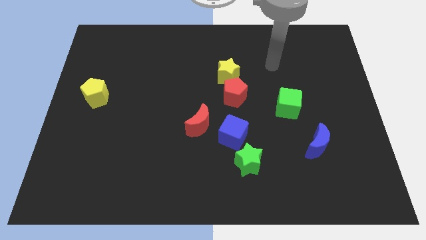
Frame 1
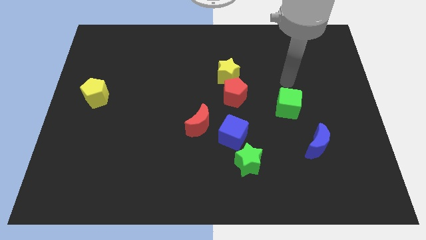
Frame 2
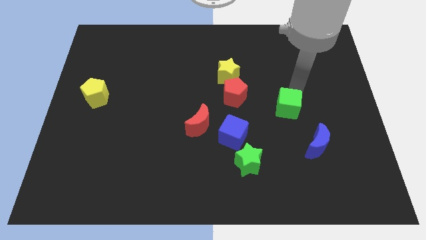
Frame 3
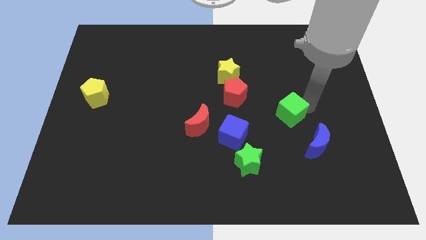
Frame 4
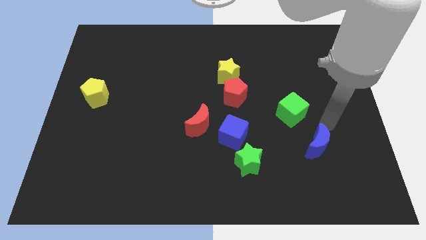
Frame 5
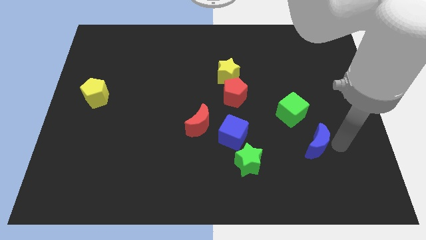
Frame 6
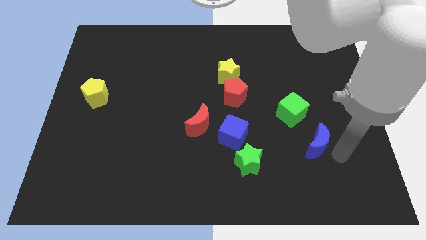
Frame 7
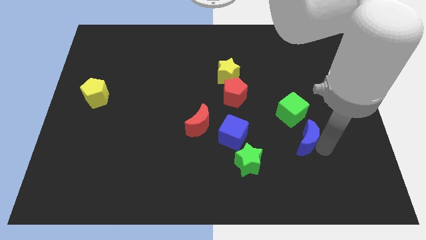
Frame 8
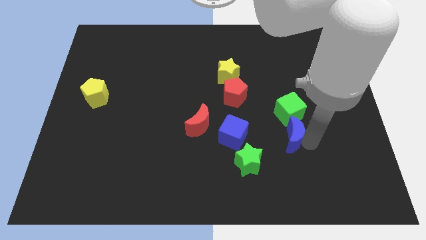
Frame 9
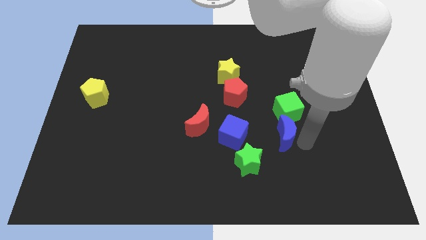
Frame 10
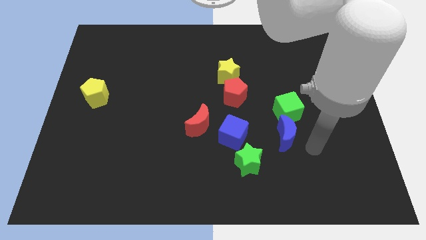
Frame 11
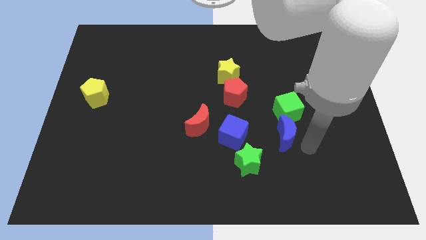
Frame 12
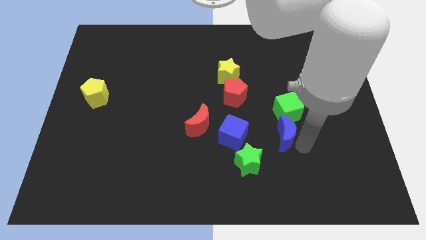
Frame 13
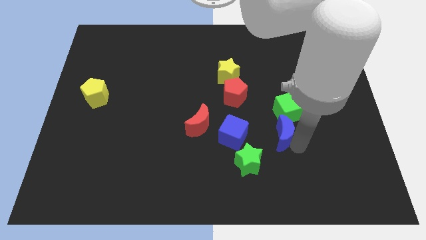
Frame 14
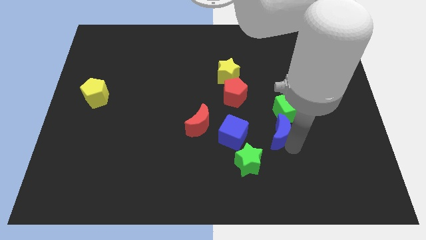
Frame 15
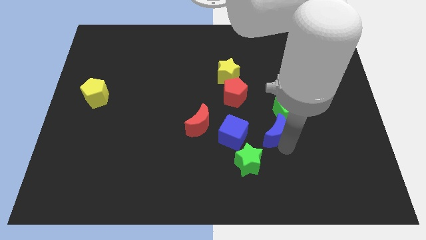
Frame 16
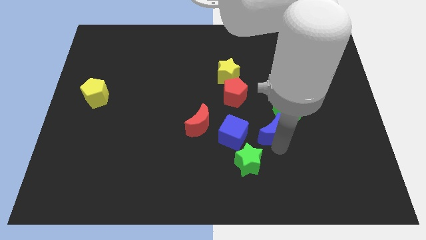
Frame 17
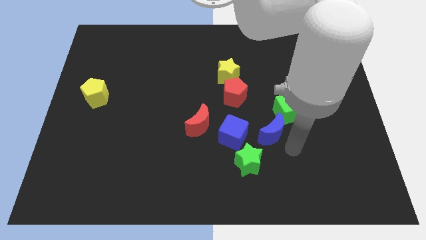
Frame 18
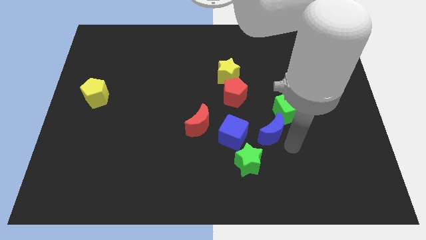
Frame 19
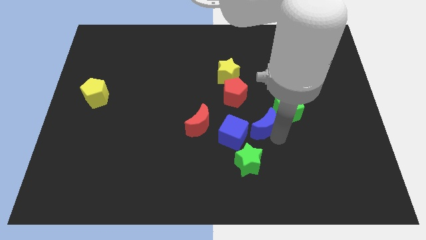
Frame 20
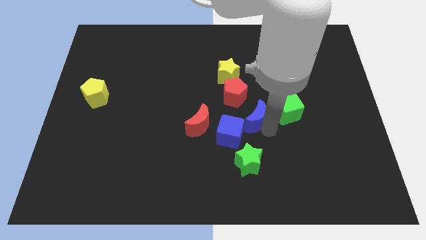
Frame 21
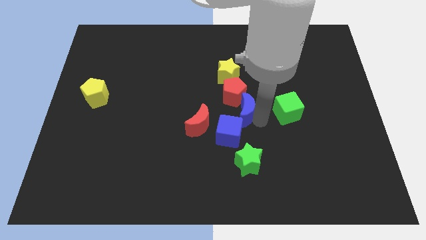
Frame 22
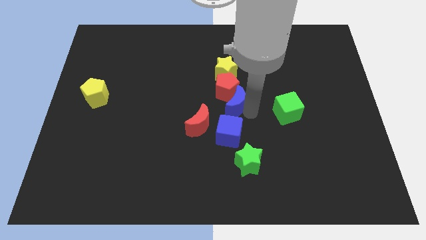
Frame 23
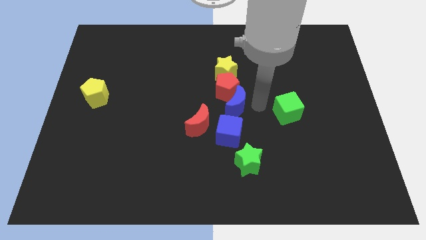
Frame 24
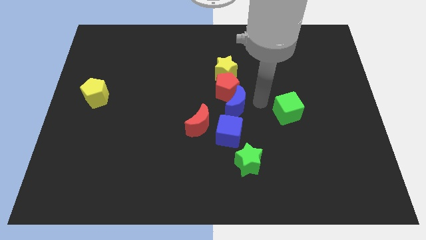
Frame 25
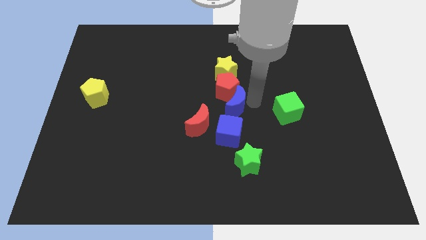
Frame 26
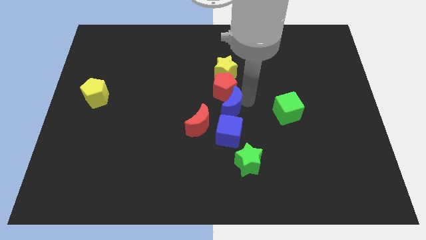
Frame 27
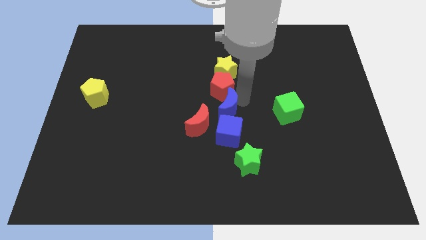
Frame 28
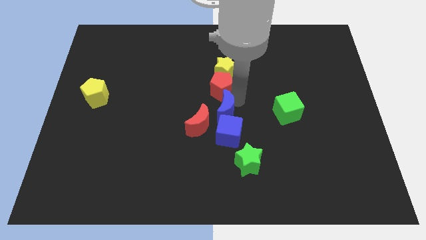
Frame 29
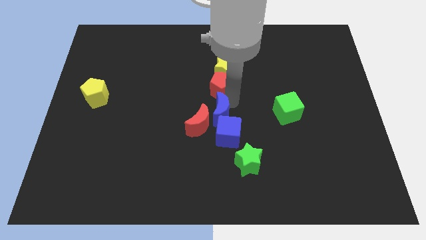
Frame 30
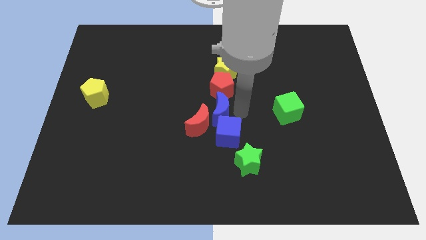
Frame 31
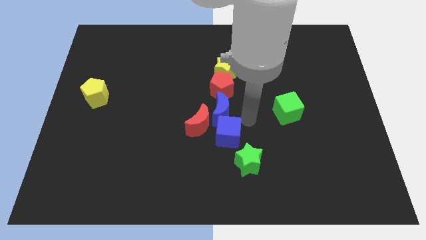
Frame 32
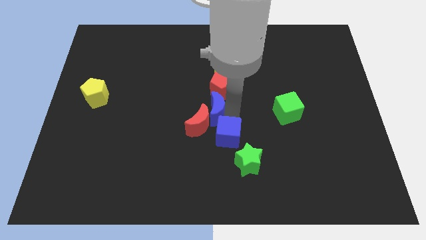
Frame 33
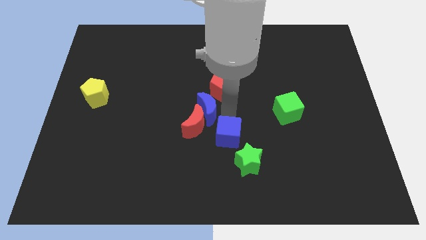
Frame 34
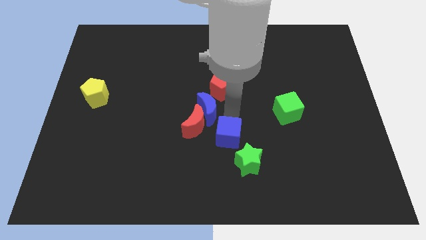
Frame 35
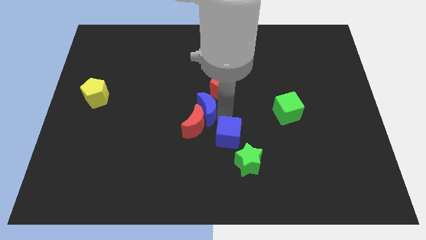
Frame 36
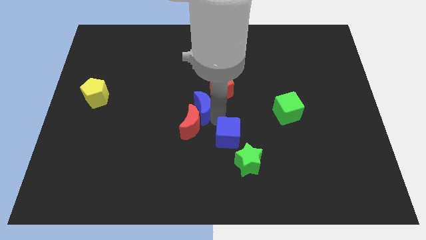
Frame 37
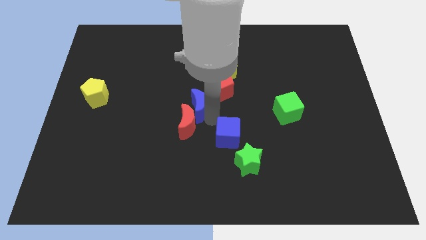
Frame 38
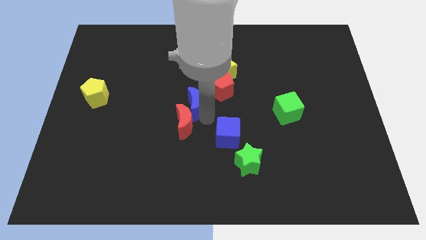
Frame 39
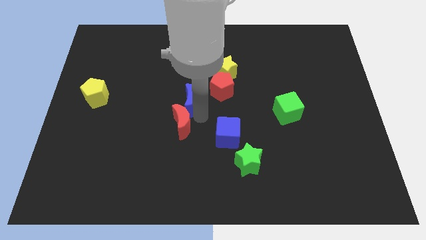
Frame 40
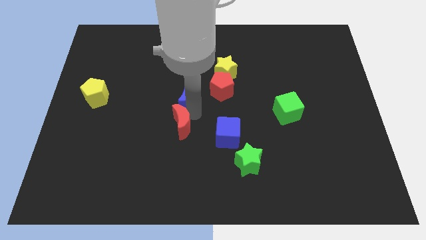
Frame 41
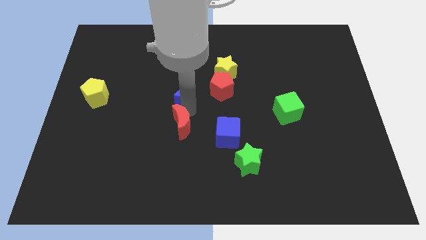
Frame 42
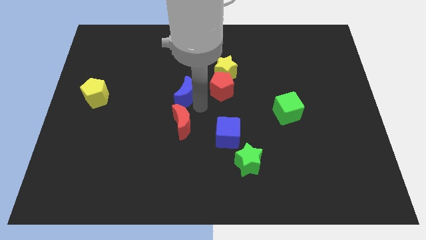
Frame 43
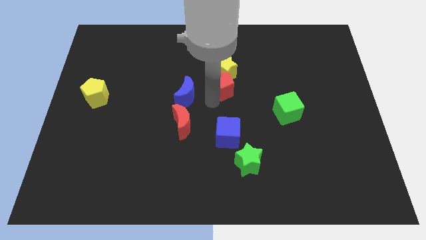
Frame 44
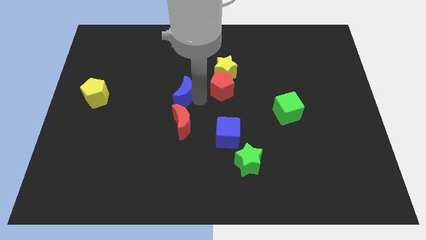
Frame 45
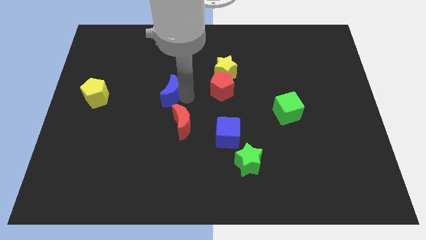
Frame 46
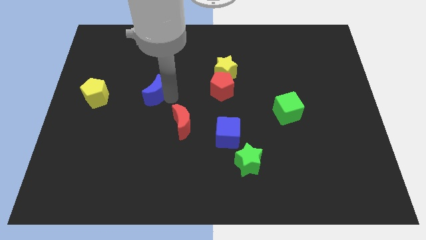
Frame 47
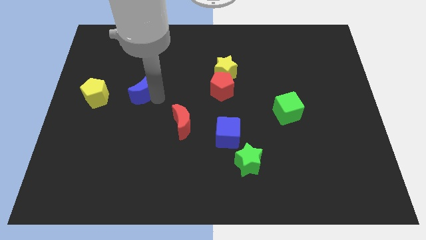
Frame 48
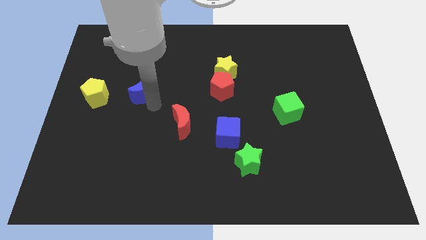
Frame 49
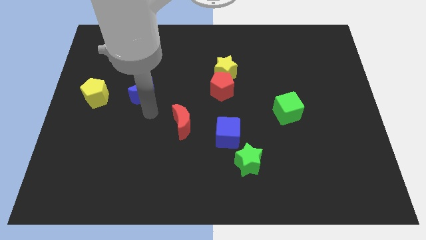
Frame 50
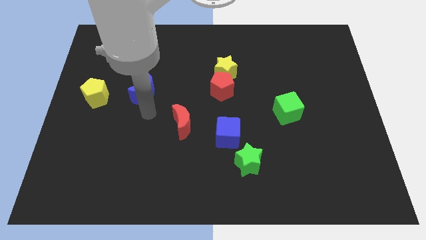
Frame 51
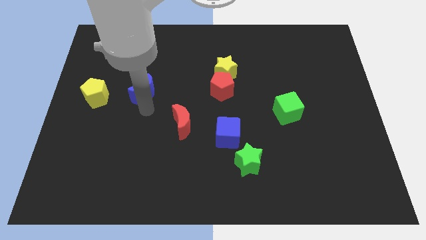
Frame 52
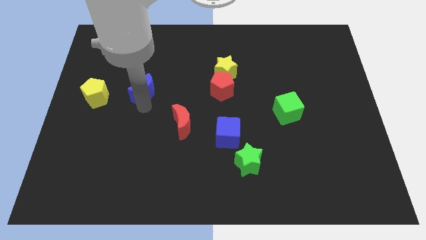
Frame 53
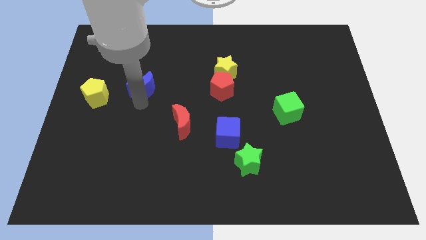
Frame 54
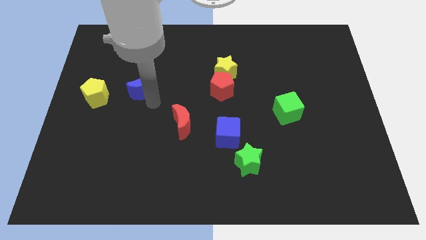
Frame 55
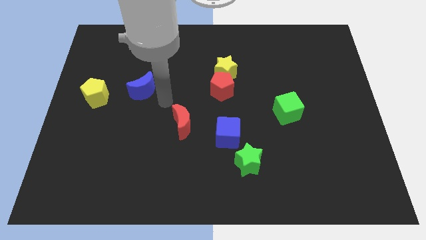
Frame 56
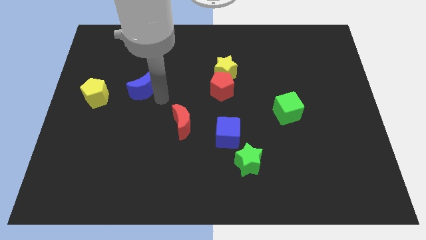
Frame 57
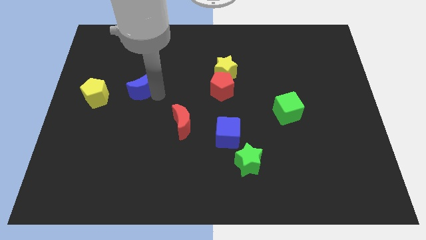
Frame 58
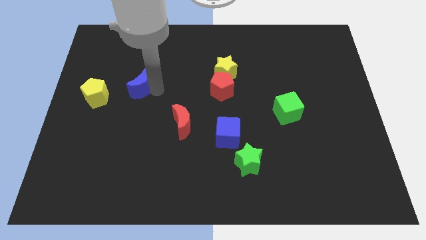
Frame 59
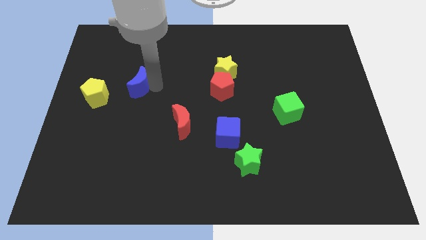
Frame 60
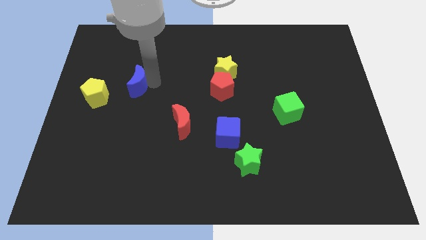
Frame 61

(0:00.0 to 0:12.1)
move the blue moon to the top right side of the yellow pentagon

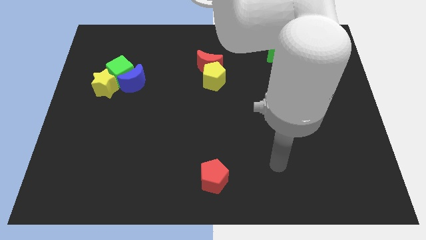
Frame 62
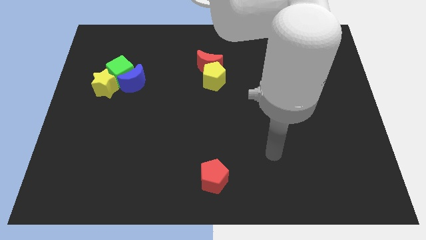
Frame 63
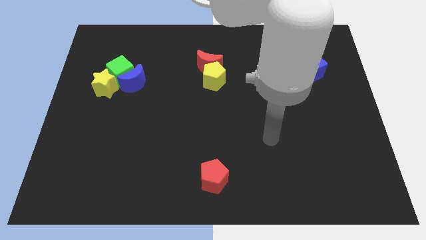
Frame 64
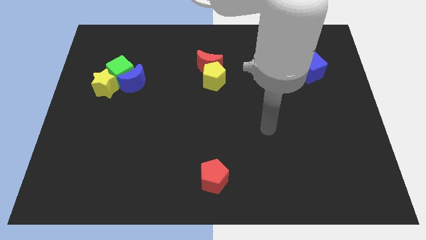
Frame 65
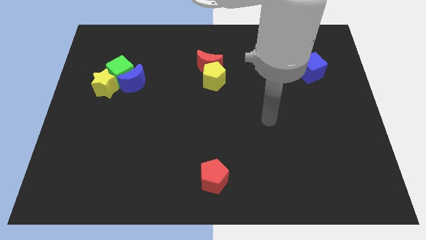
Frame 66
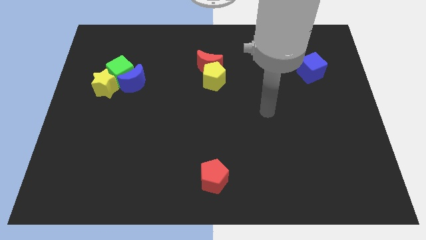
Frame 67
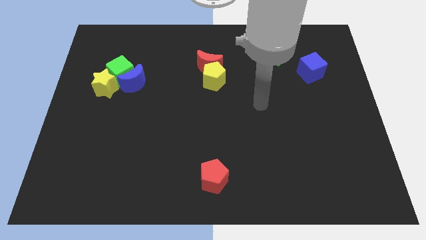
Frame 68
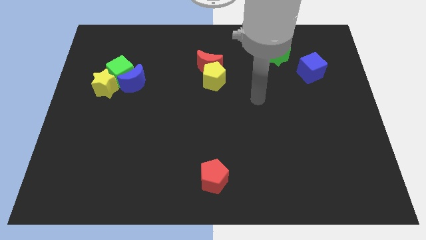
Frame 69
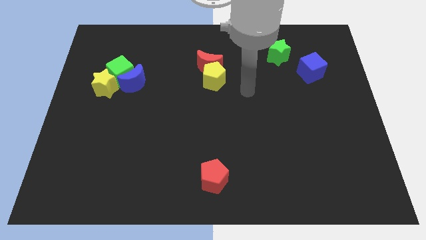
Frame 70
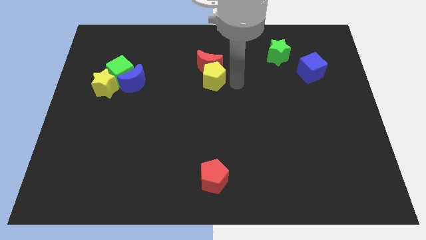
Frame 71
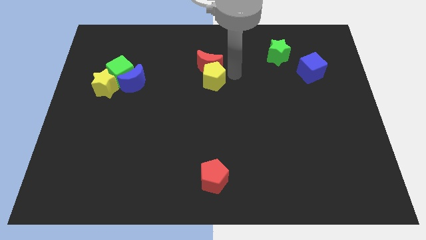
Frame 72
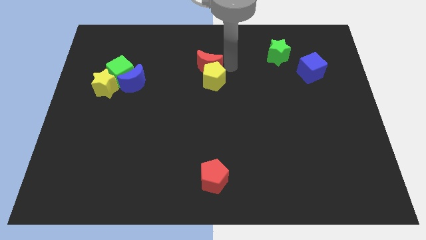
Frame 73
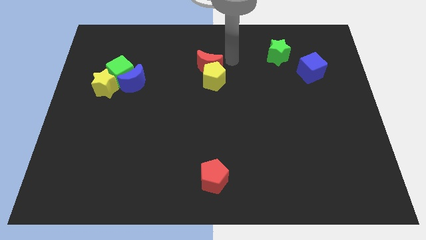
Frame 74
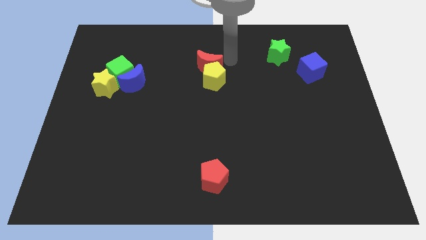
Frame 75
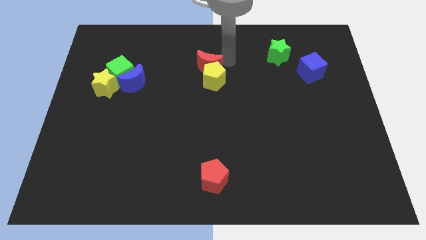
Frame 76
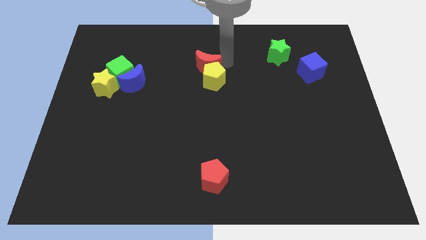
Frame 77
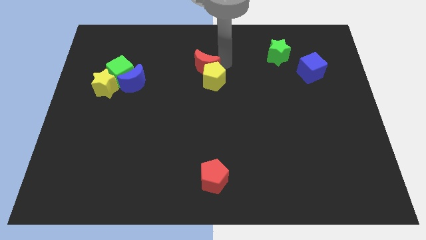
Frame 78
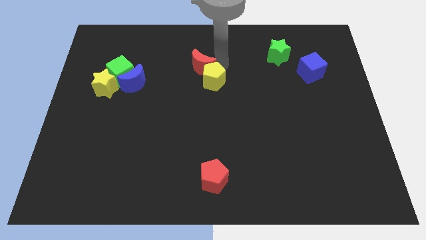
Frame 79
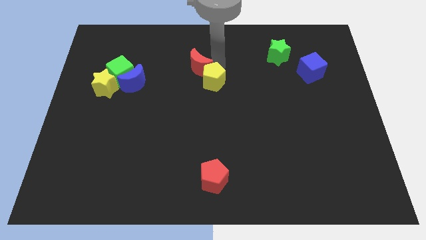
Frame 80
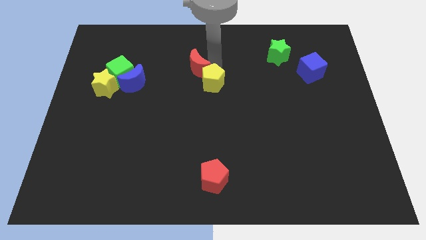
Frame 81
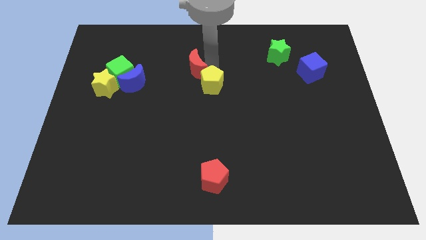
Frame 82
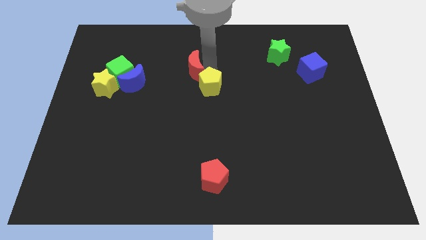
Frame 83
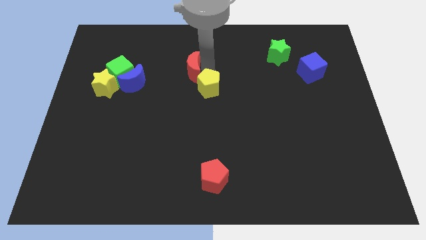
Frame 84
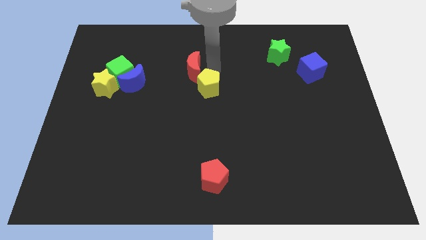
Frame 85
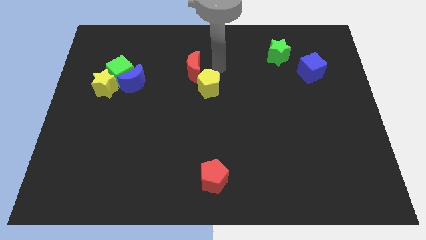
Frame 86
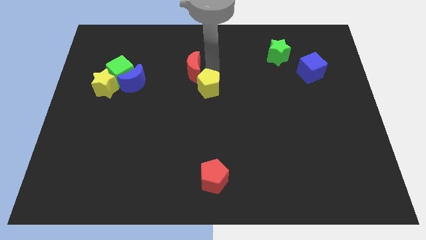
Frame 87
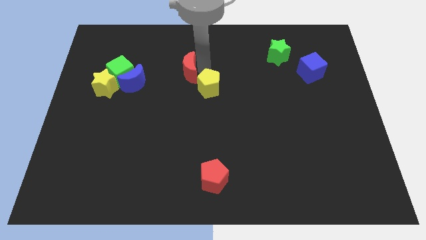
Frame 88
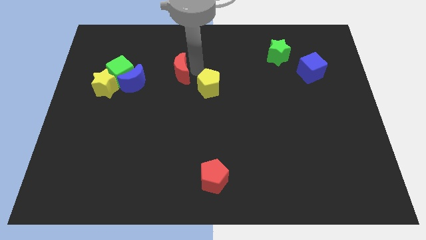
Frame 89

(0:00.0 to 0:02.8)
push the red moon right of the green cube
